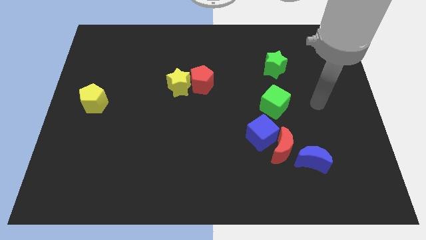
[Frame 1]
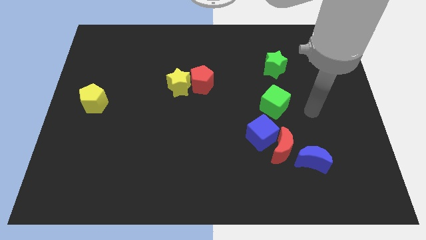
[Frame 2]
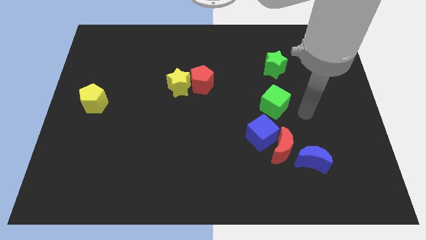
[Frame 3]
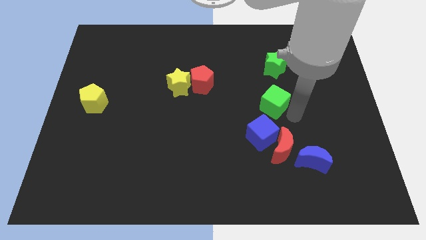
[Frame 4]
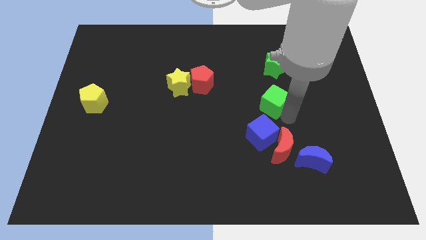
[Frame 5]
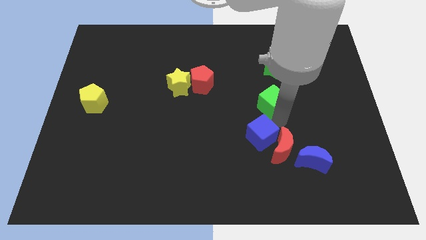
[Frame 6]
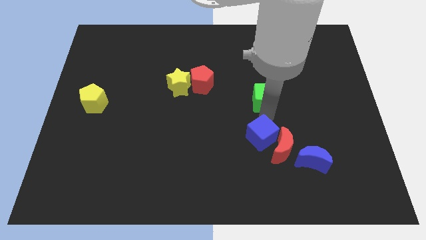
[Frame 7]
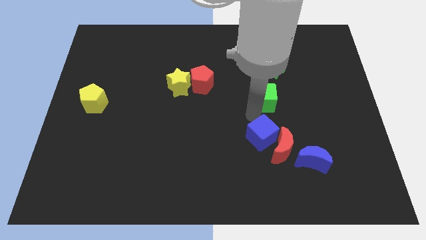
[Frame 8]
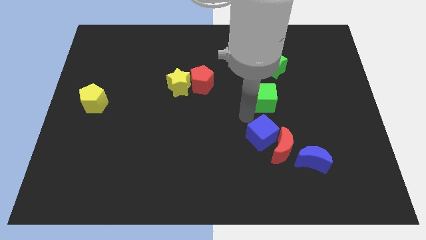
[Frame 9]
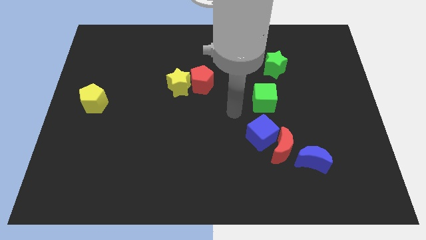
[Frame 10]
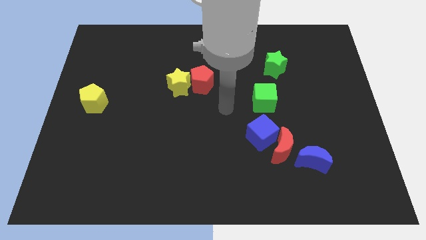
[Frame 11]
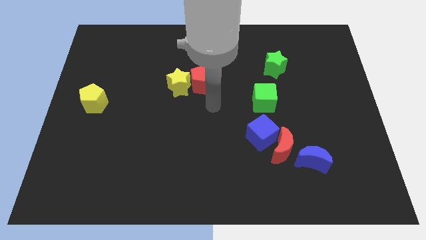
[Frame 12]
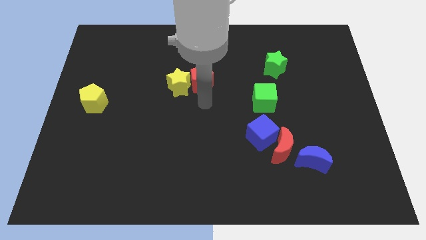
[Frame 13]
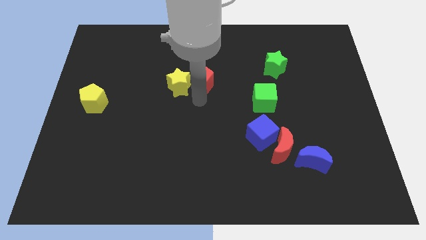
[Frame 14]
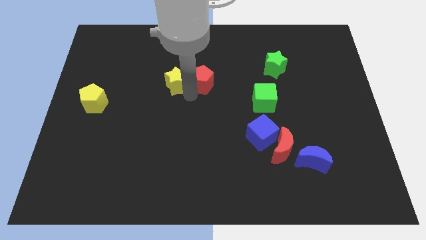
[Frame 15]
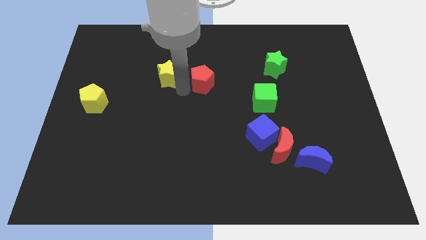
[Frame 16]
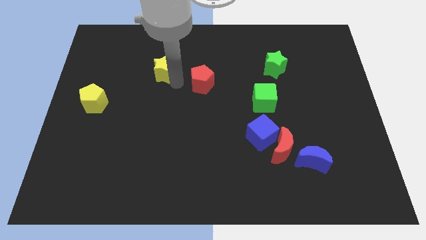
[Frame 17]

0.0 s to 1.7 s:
separate the red pentagon from the yellow star

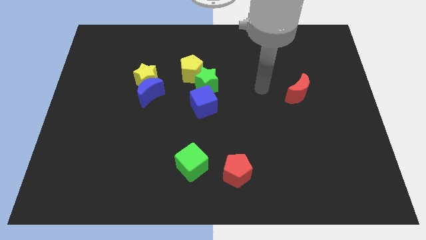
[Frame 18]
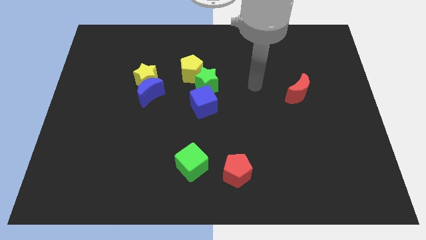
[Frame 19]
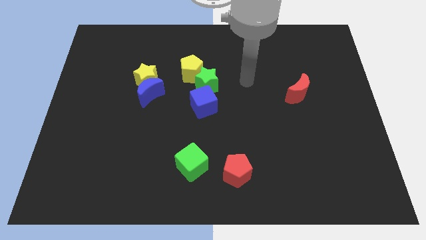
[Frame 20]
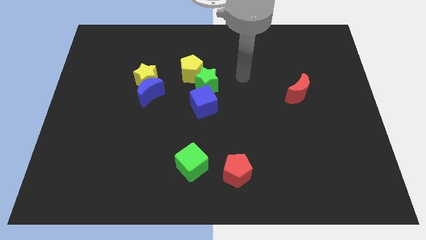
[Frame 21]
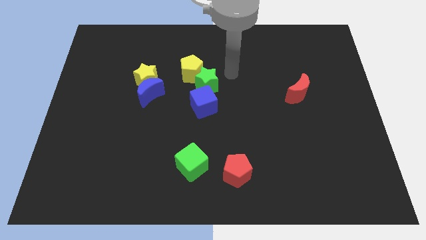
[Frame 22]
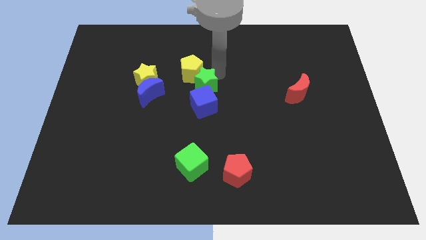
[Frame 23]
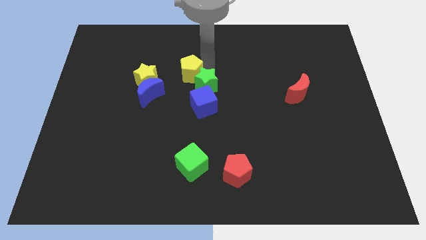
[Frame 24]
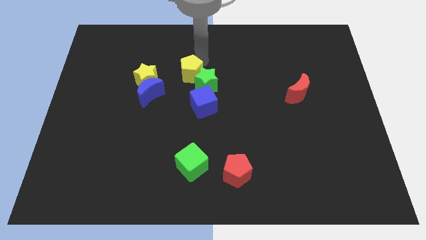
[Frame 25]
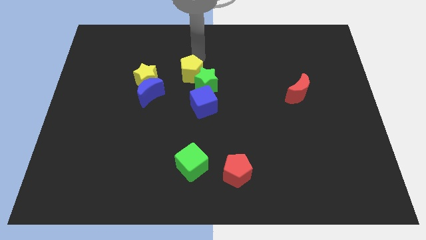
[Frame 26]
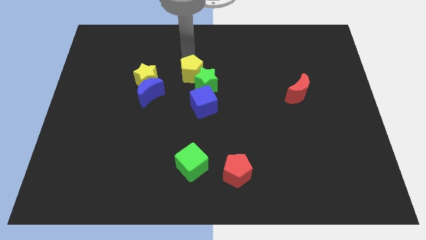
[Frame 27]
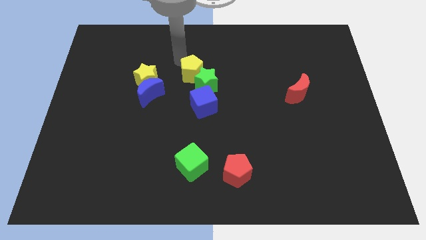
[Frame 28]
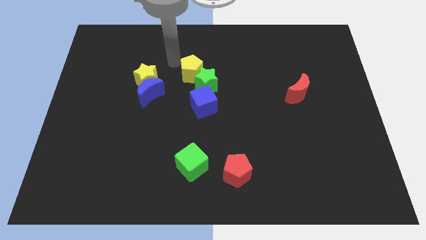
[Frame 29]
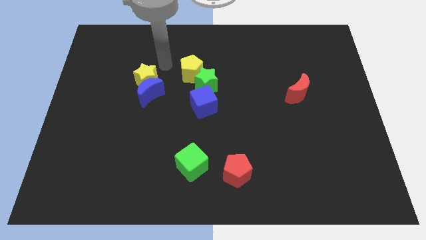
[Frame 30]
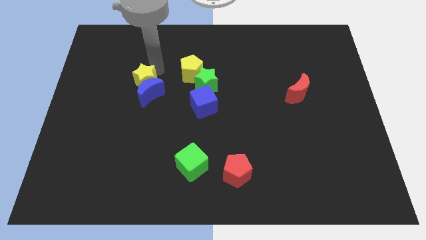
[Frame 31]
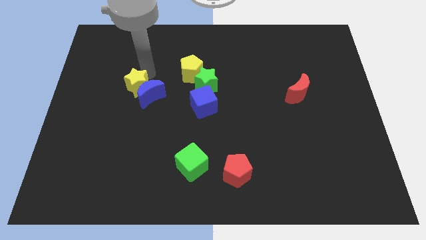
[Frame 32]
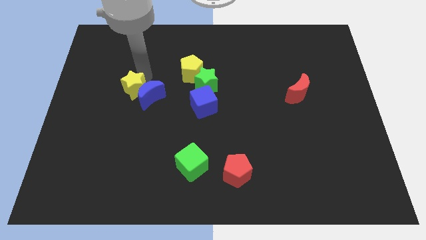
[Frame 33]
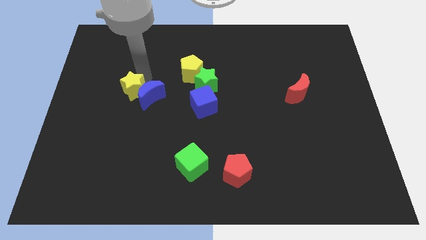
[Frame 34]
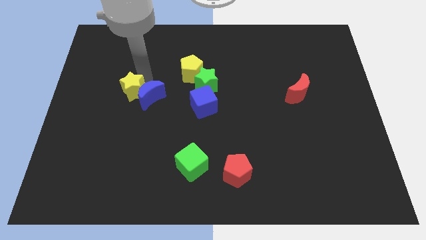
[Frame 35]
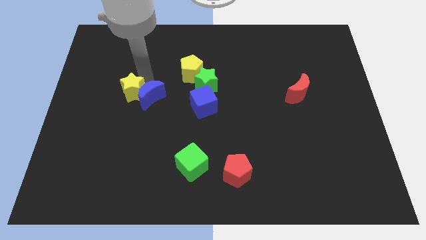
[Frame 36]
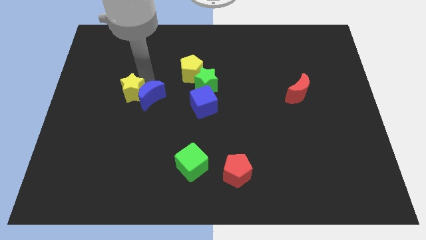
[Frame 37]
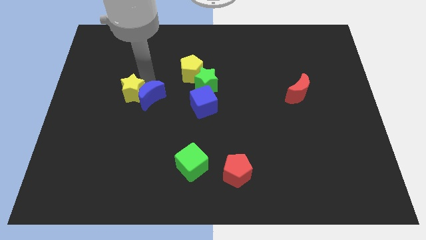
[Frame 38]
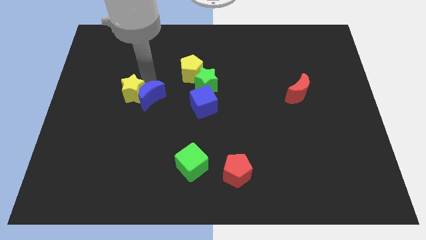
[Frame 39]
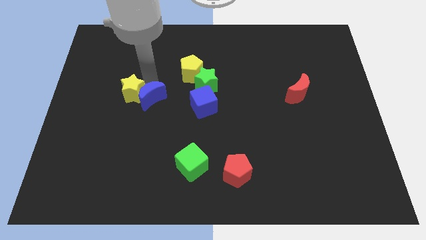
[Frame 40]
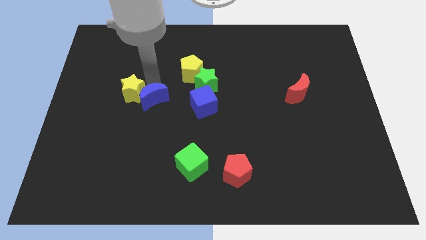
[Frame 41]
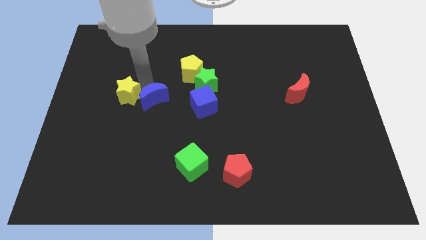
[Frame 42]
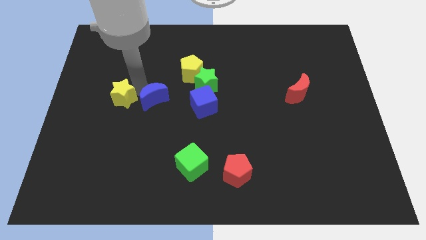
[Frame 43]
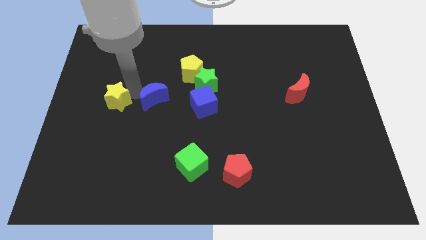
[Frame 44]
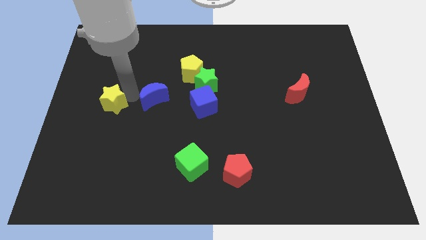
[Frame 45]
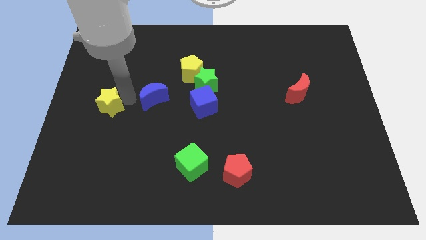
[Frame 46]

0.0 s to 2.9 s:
separate the blue moon from the yellow star

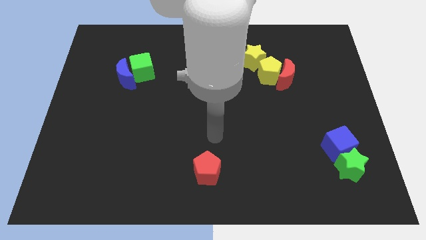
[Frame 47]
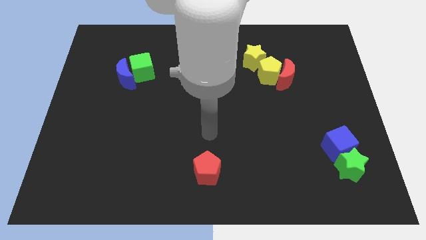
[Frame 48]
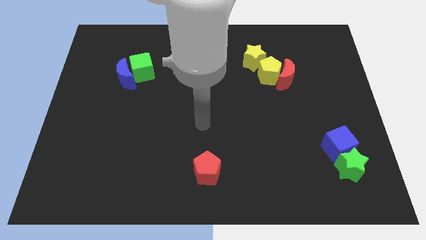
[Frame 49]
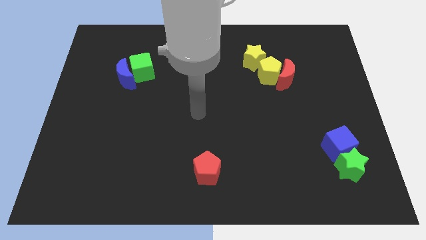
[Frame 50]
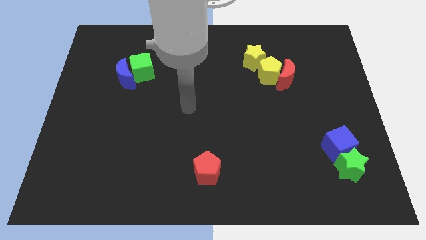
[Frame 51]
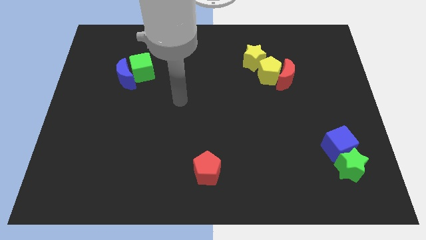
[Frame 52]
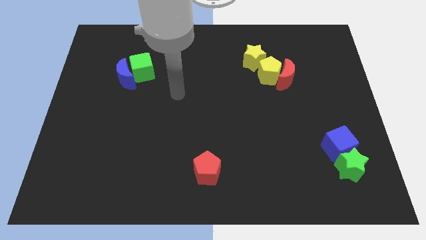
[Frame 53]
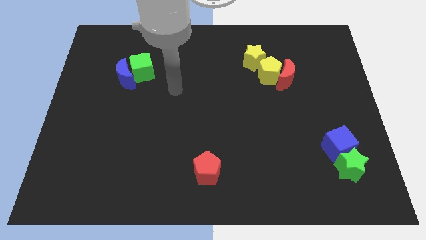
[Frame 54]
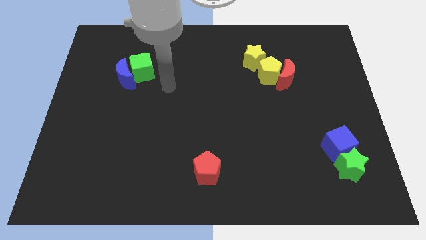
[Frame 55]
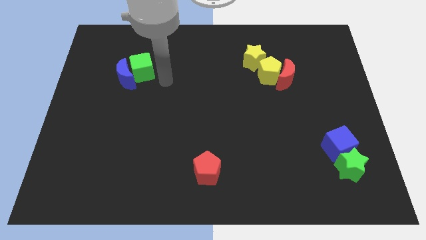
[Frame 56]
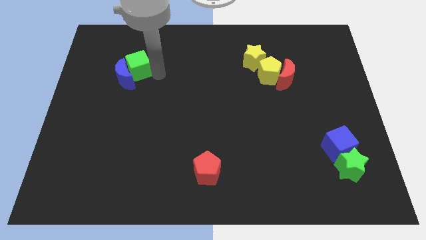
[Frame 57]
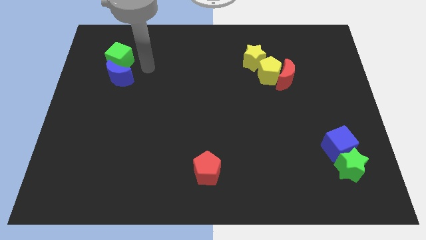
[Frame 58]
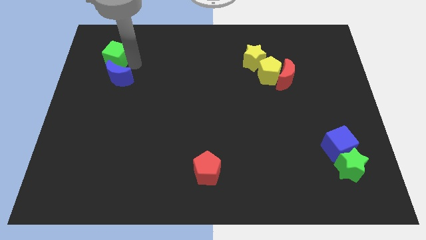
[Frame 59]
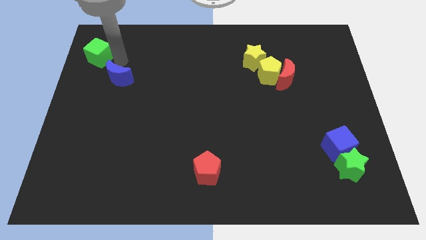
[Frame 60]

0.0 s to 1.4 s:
move the blue moon away from the green cube

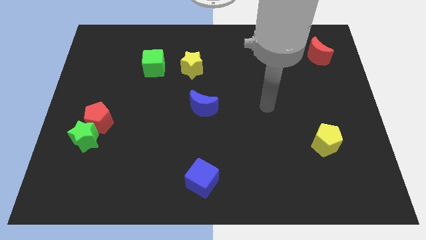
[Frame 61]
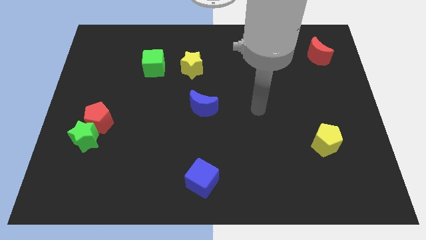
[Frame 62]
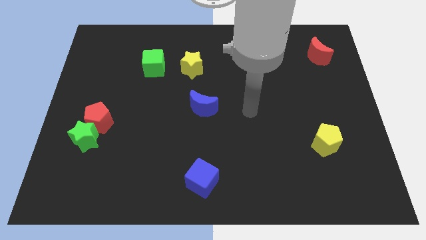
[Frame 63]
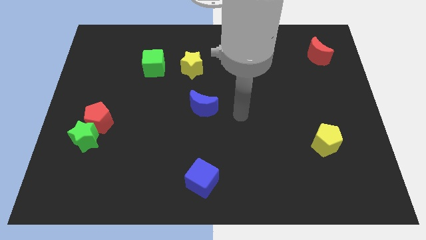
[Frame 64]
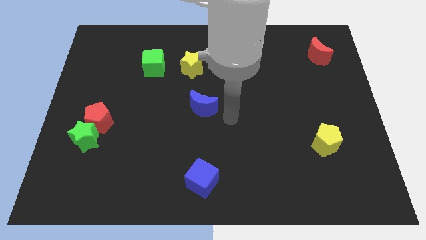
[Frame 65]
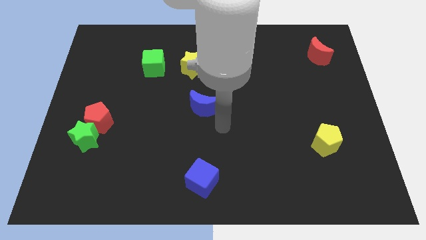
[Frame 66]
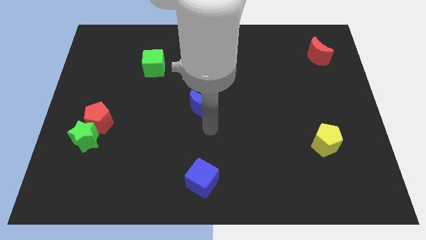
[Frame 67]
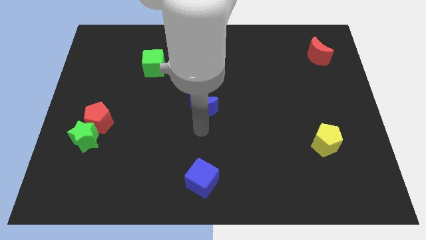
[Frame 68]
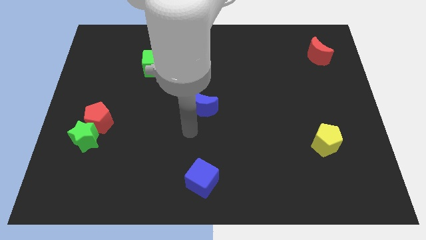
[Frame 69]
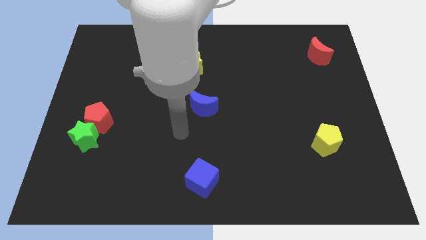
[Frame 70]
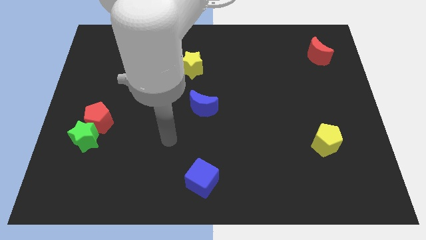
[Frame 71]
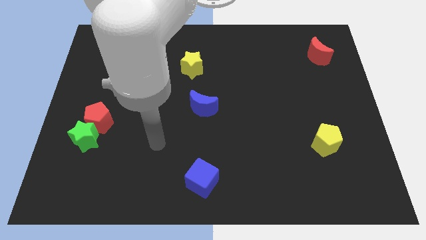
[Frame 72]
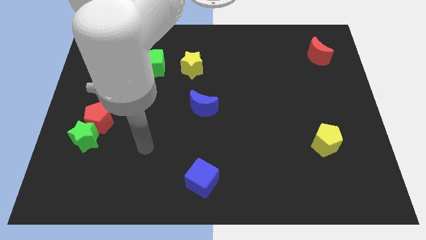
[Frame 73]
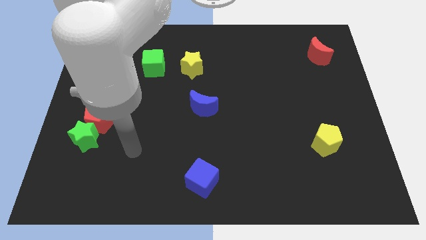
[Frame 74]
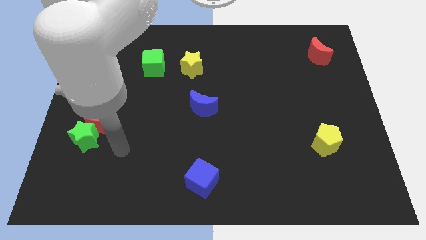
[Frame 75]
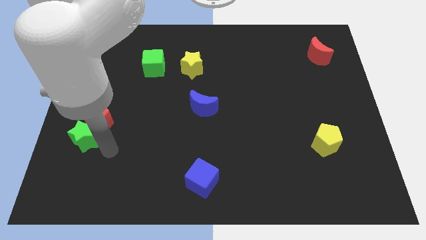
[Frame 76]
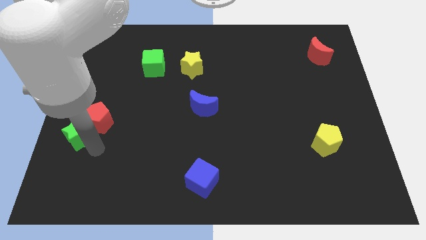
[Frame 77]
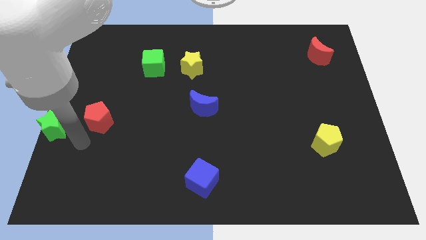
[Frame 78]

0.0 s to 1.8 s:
move the red pentagon away from the green star

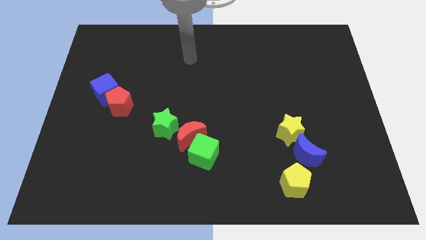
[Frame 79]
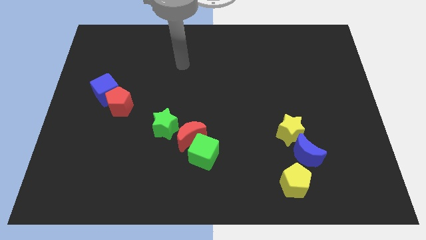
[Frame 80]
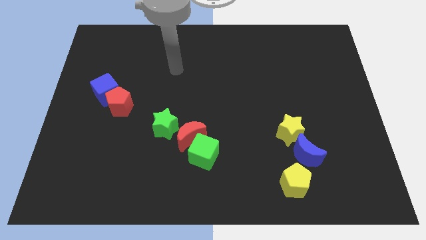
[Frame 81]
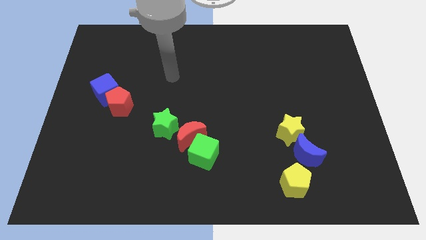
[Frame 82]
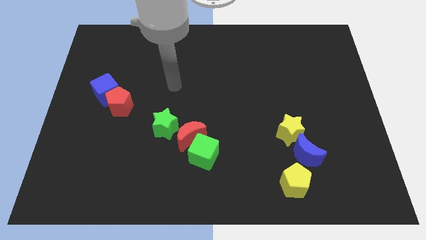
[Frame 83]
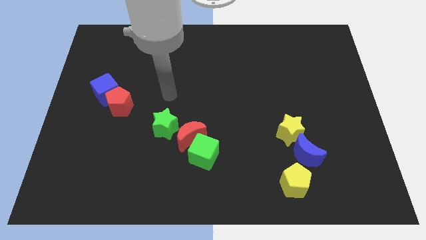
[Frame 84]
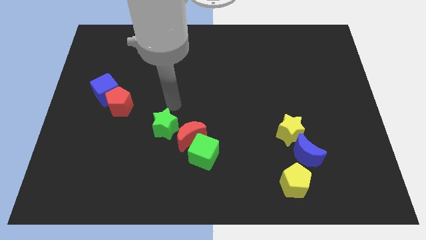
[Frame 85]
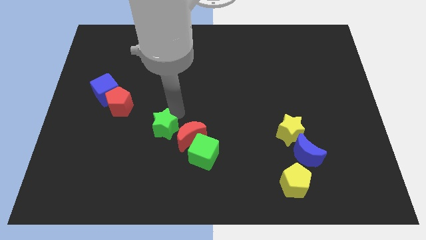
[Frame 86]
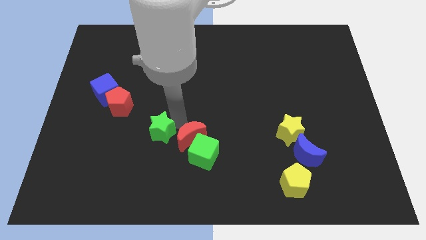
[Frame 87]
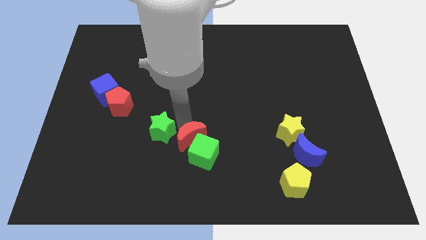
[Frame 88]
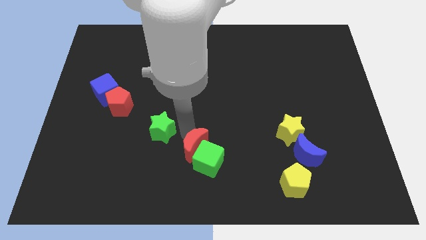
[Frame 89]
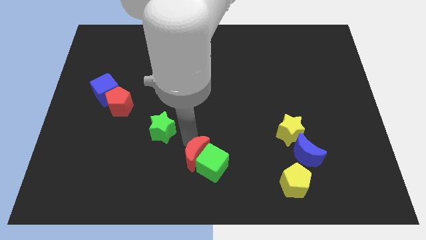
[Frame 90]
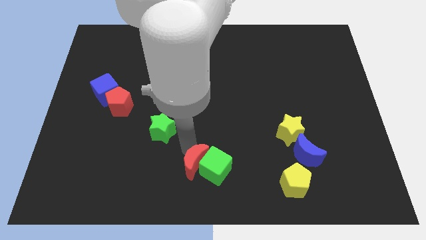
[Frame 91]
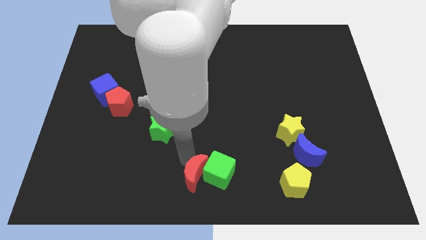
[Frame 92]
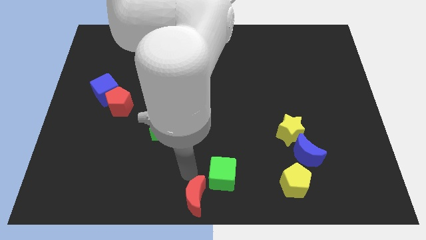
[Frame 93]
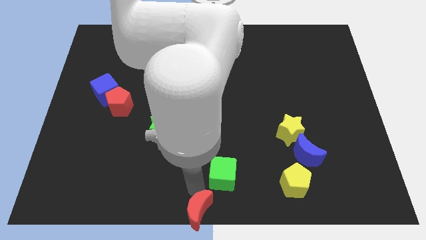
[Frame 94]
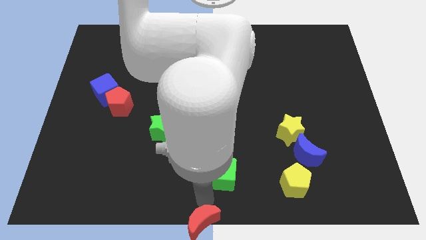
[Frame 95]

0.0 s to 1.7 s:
separate the green cube from the red moon
